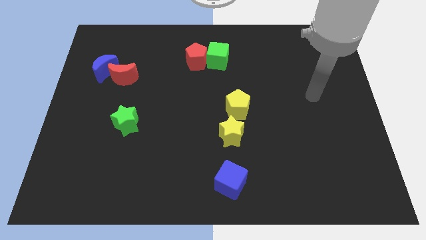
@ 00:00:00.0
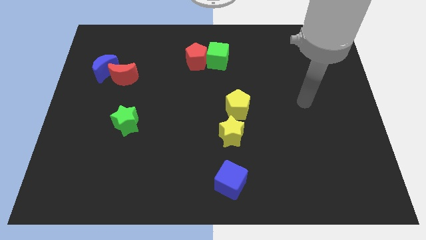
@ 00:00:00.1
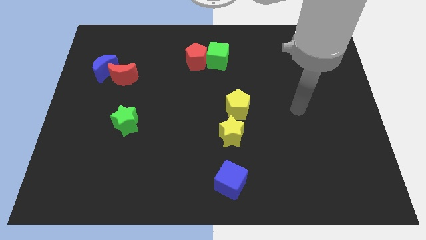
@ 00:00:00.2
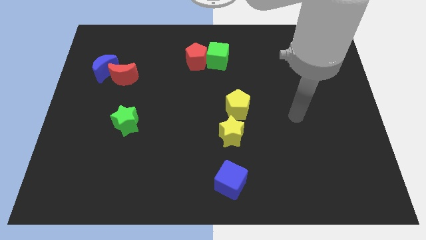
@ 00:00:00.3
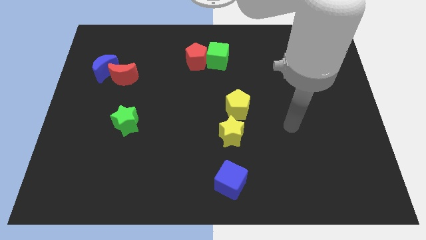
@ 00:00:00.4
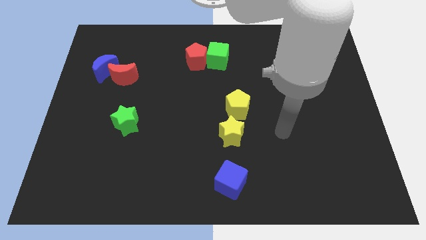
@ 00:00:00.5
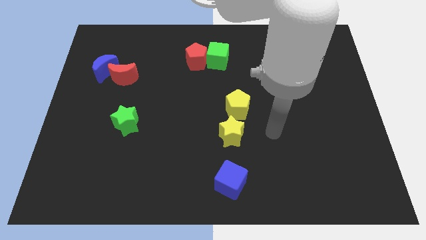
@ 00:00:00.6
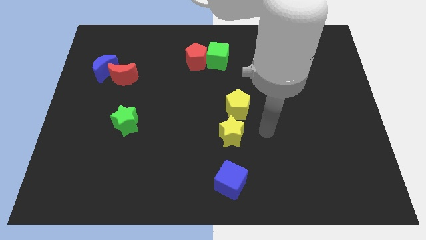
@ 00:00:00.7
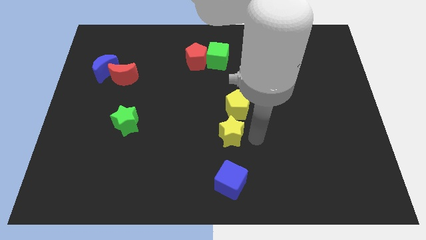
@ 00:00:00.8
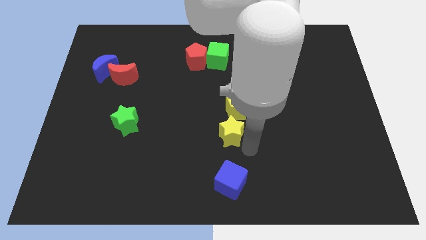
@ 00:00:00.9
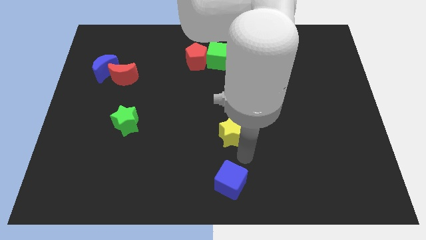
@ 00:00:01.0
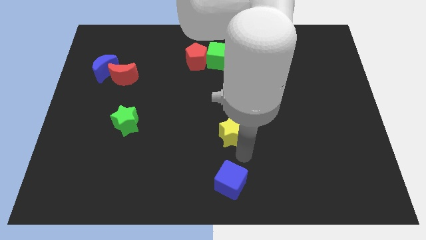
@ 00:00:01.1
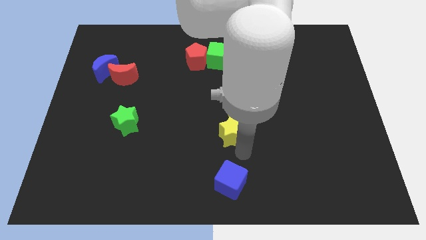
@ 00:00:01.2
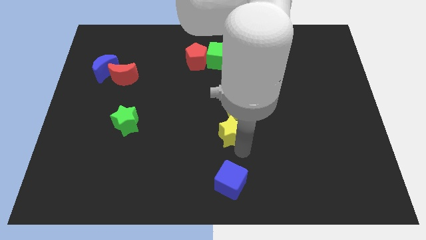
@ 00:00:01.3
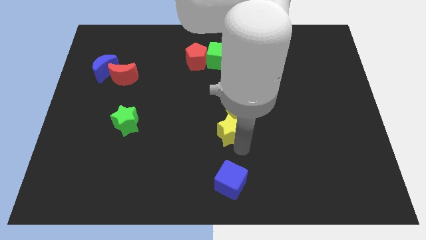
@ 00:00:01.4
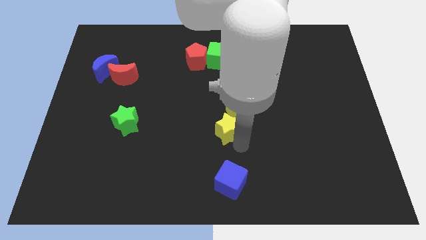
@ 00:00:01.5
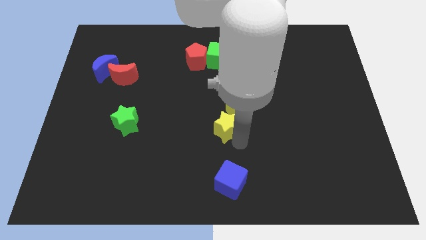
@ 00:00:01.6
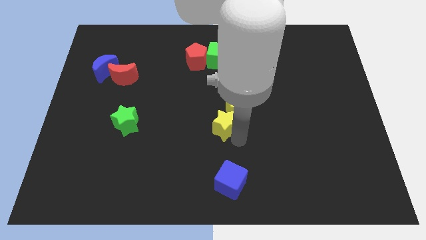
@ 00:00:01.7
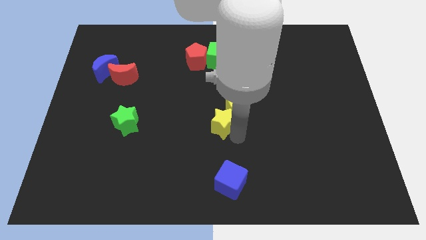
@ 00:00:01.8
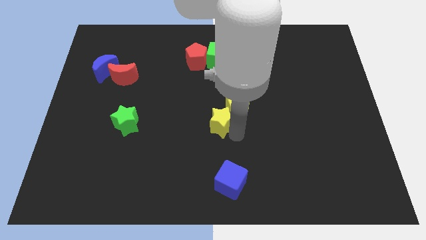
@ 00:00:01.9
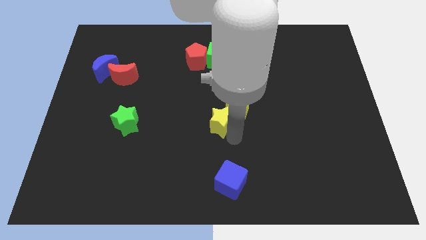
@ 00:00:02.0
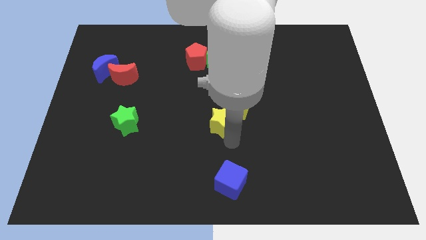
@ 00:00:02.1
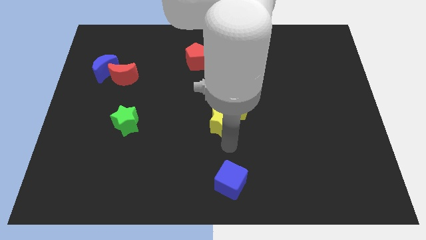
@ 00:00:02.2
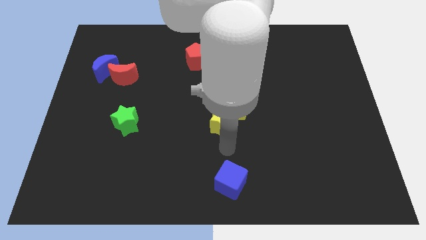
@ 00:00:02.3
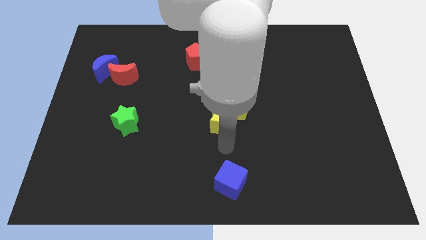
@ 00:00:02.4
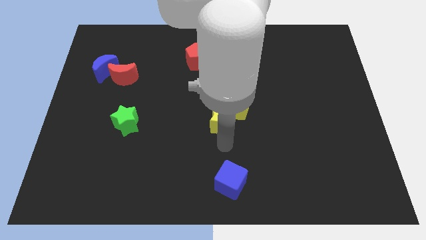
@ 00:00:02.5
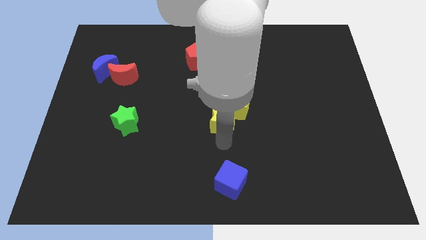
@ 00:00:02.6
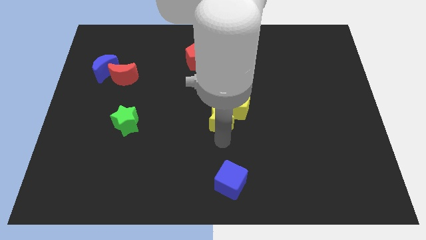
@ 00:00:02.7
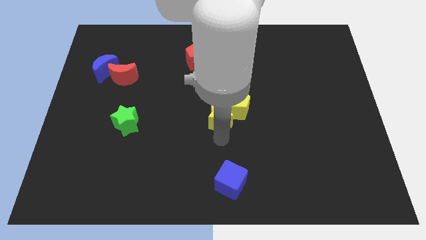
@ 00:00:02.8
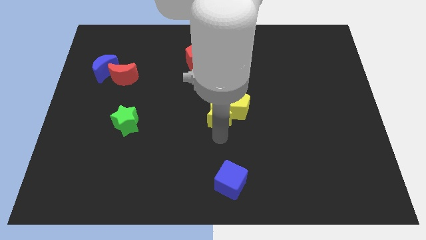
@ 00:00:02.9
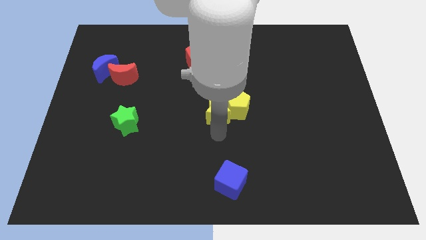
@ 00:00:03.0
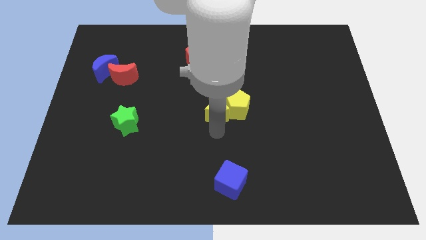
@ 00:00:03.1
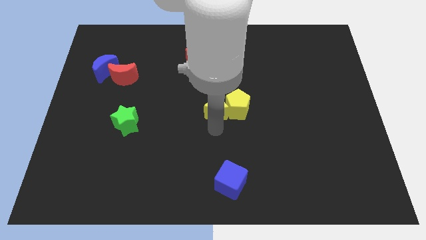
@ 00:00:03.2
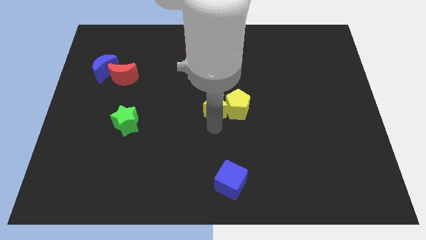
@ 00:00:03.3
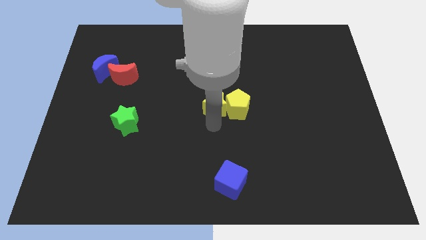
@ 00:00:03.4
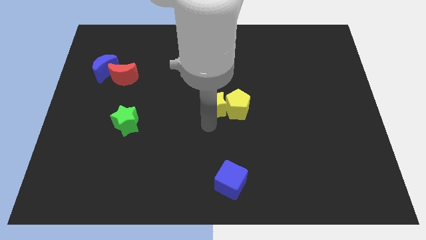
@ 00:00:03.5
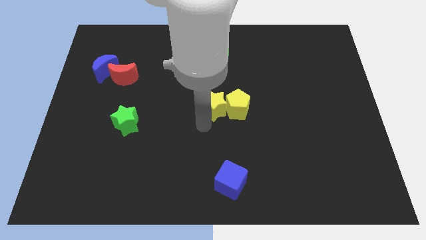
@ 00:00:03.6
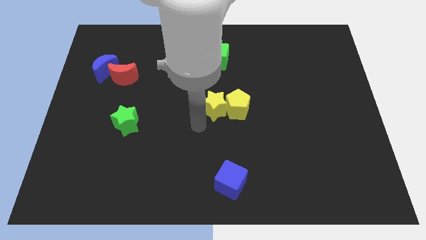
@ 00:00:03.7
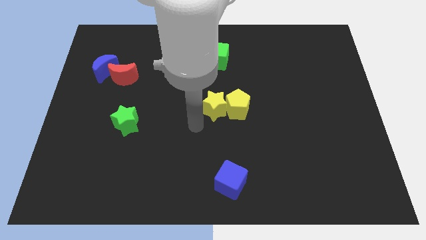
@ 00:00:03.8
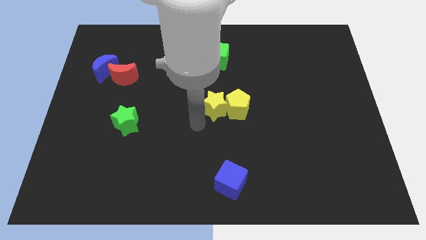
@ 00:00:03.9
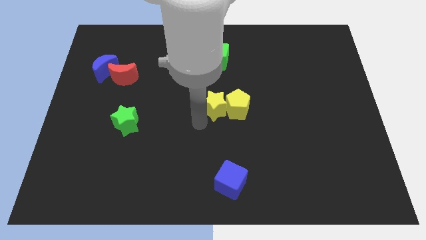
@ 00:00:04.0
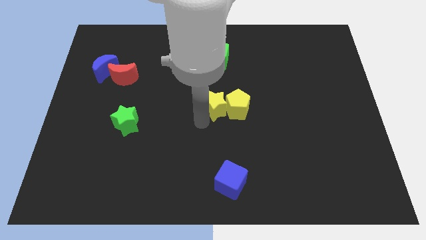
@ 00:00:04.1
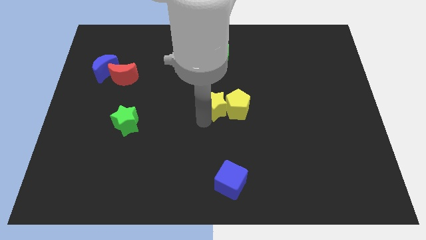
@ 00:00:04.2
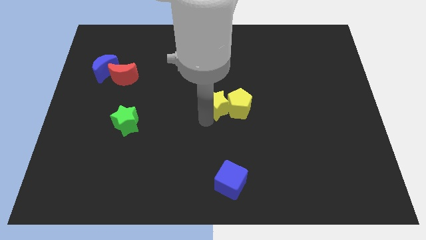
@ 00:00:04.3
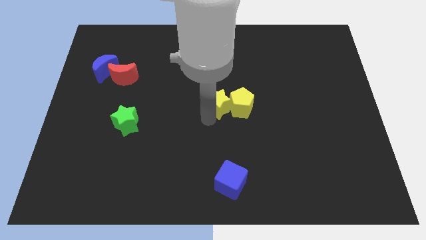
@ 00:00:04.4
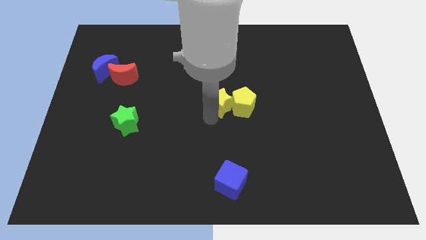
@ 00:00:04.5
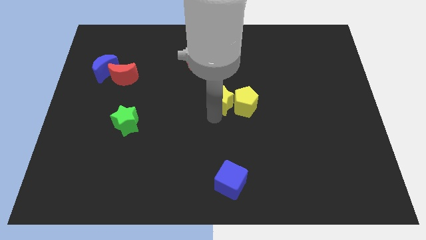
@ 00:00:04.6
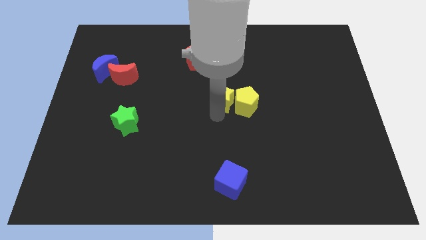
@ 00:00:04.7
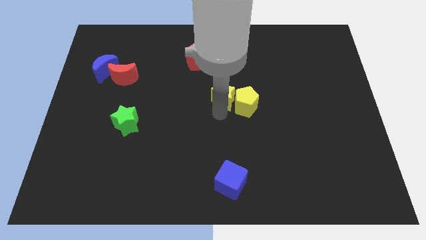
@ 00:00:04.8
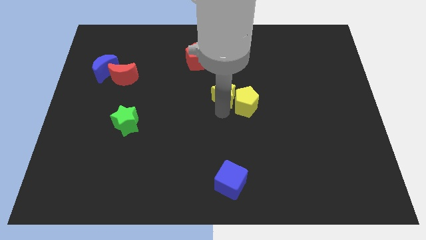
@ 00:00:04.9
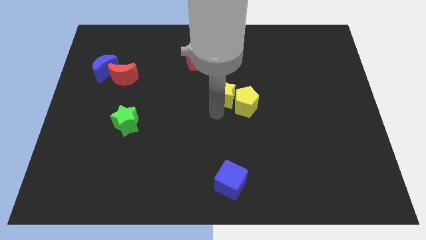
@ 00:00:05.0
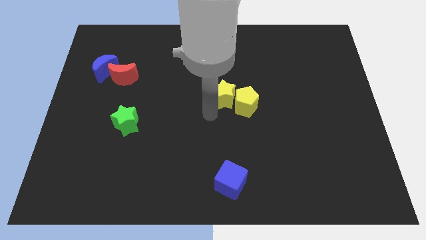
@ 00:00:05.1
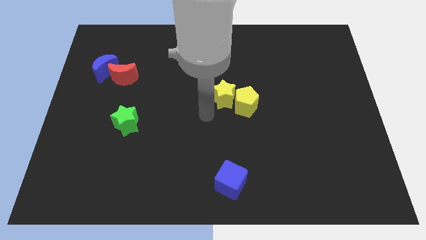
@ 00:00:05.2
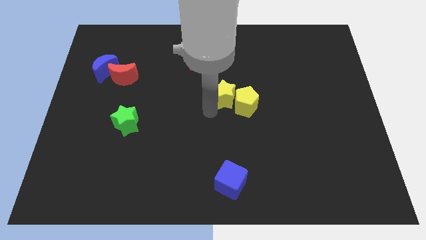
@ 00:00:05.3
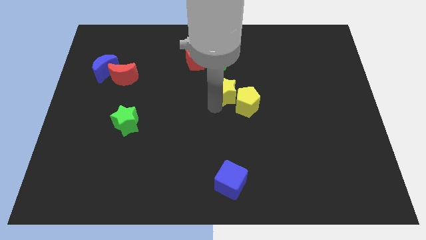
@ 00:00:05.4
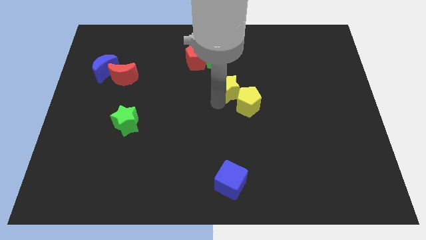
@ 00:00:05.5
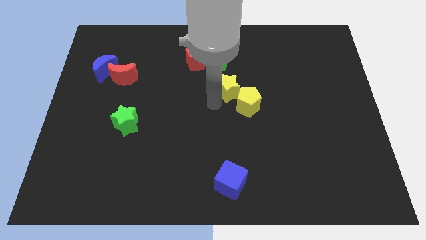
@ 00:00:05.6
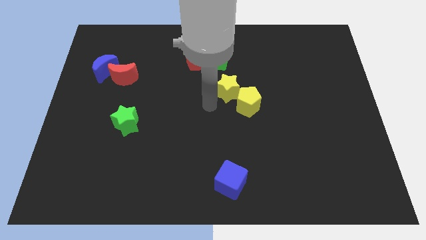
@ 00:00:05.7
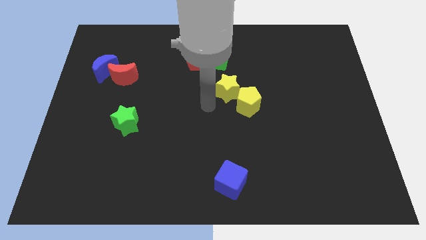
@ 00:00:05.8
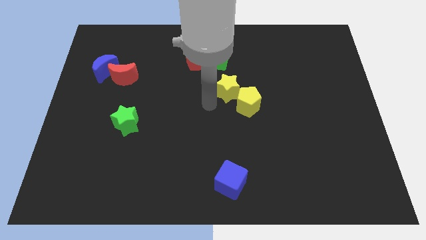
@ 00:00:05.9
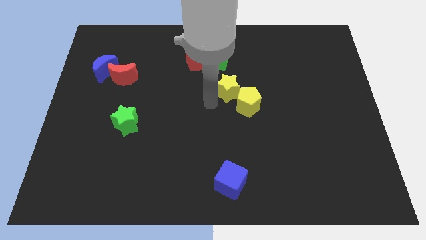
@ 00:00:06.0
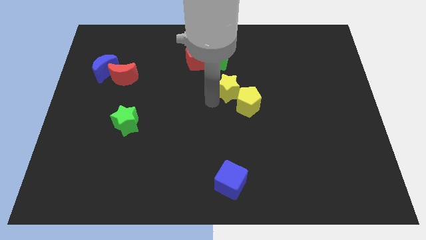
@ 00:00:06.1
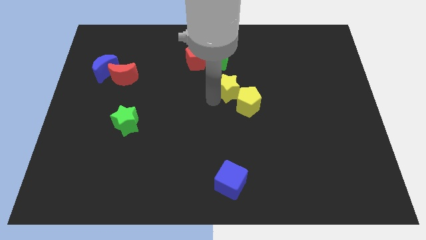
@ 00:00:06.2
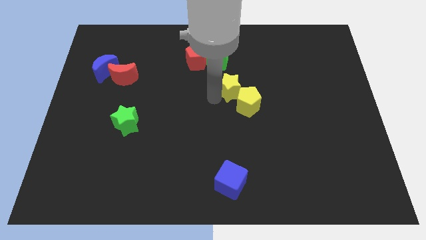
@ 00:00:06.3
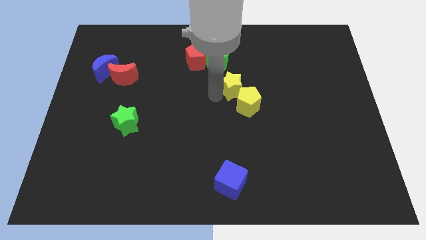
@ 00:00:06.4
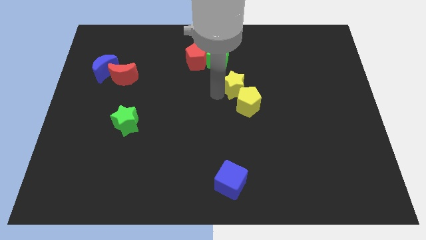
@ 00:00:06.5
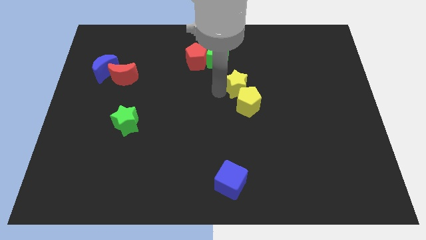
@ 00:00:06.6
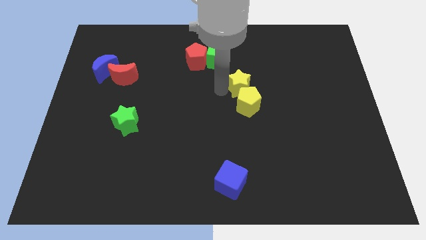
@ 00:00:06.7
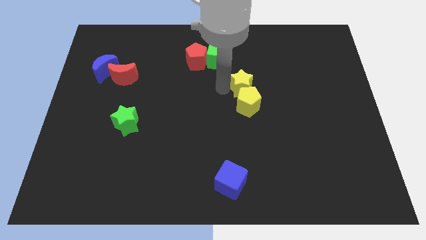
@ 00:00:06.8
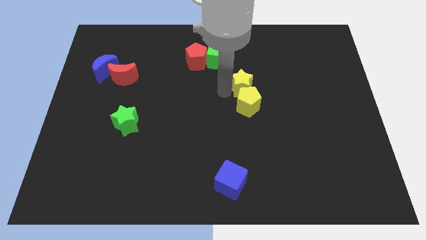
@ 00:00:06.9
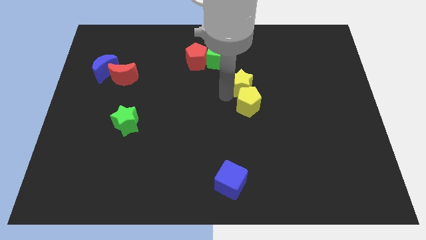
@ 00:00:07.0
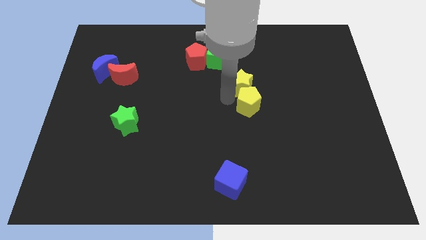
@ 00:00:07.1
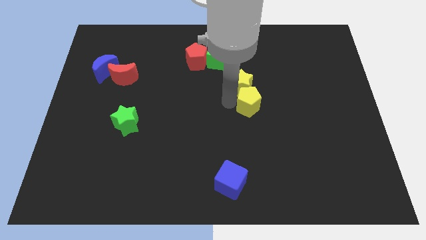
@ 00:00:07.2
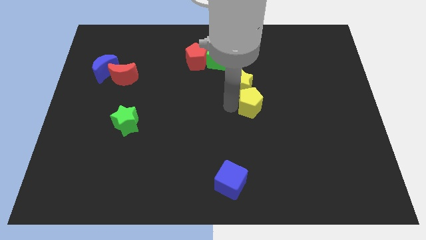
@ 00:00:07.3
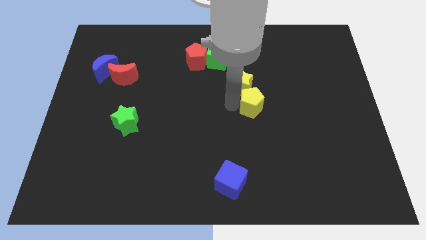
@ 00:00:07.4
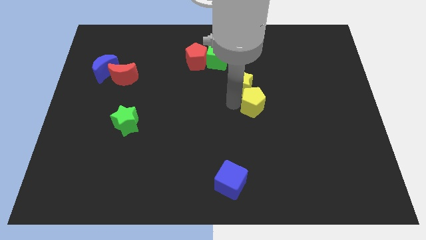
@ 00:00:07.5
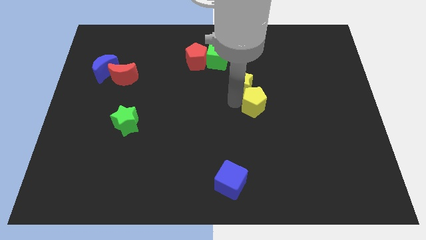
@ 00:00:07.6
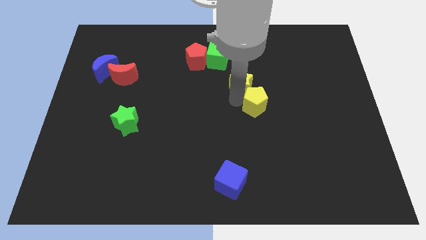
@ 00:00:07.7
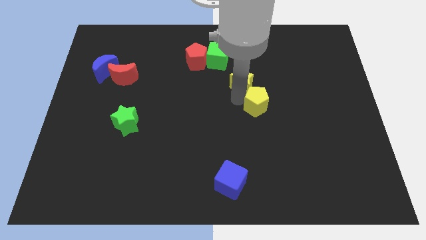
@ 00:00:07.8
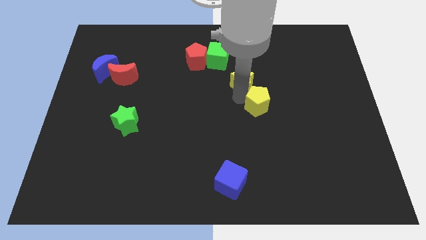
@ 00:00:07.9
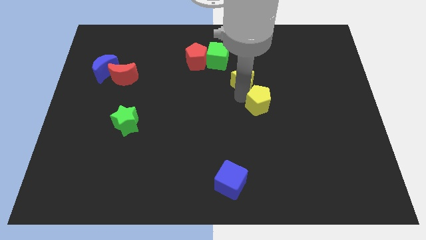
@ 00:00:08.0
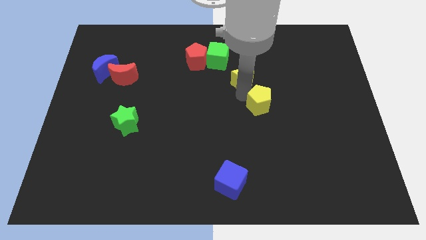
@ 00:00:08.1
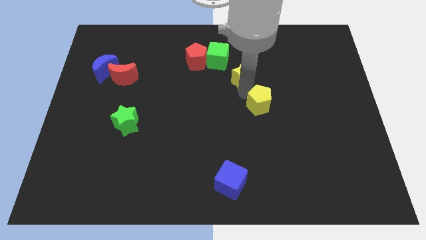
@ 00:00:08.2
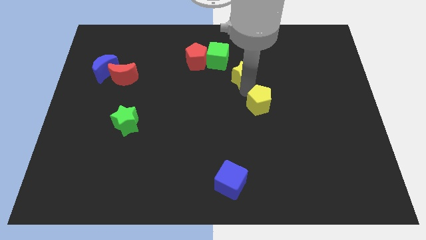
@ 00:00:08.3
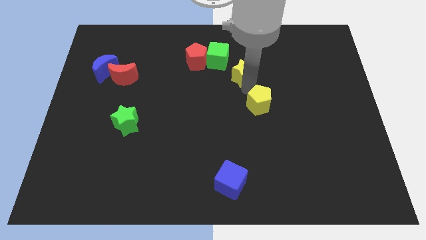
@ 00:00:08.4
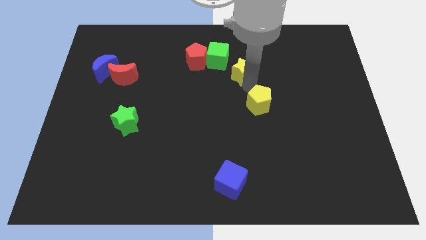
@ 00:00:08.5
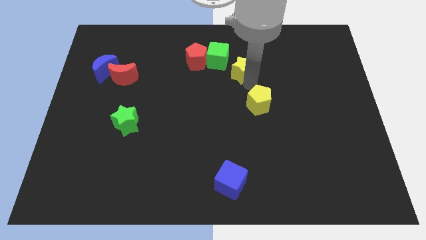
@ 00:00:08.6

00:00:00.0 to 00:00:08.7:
put the yellow star just right of the red pentagon
